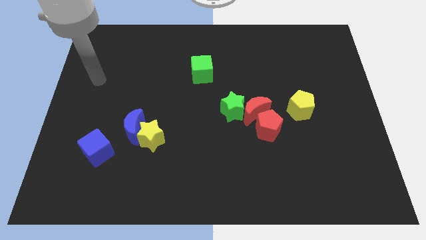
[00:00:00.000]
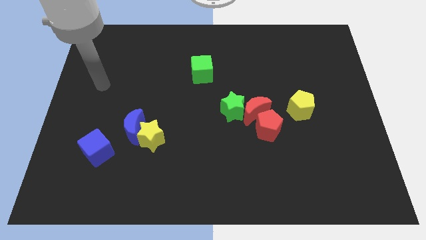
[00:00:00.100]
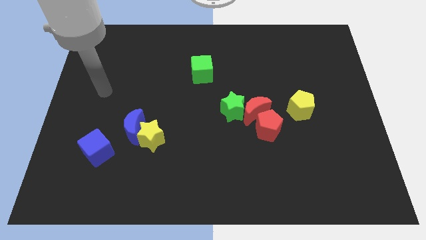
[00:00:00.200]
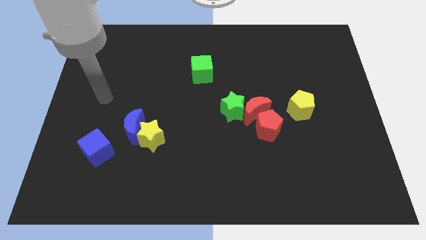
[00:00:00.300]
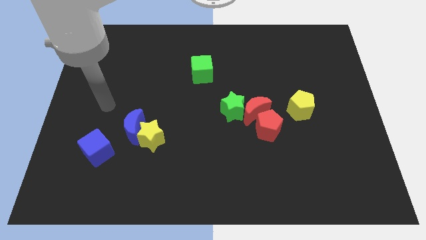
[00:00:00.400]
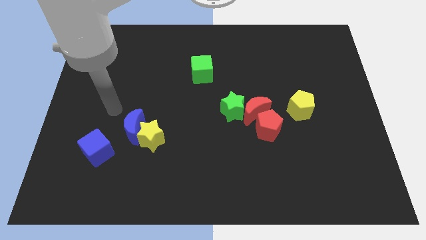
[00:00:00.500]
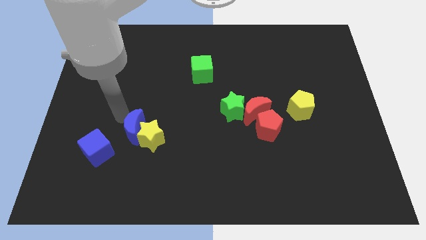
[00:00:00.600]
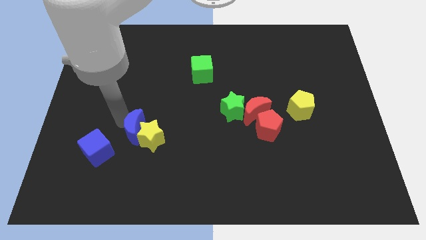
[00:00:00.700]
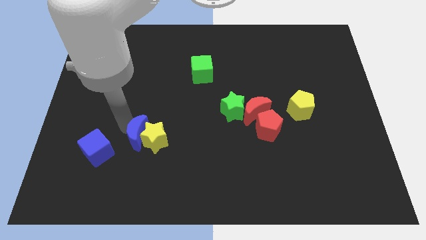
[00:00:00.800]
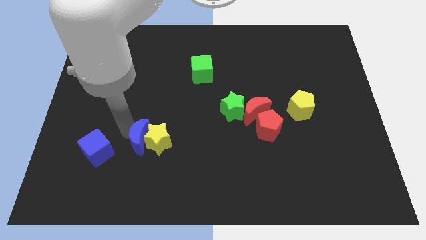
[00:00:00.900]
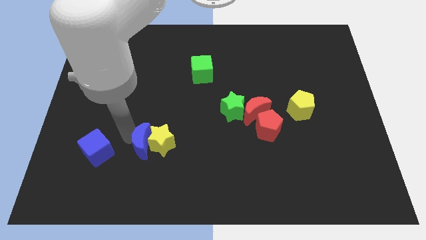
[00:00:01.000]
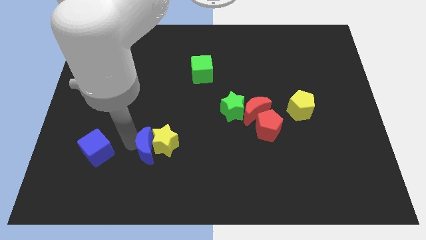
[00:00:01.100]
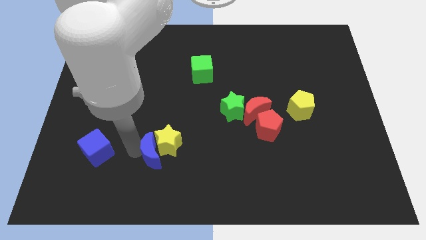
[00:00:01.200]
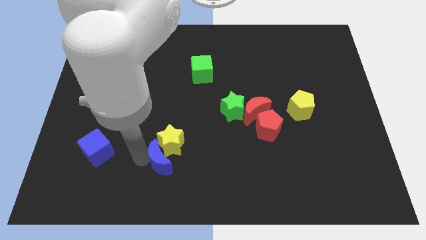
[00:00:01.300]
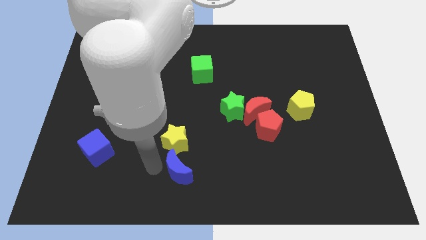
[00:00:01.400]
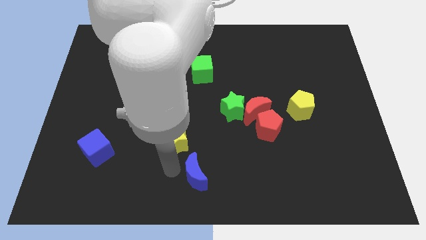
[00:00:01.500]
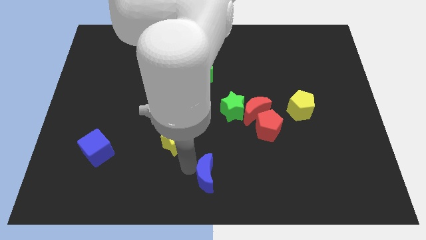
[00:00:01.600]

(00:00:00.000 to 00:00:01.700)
pull the yellow star apart from the blue moon

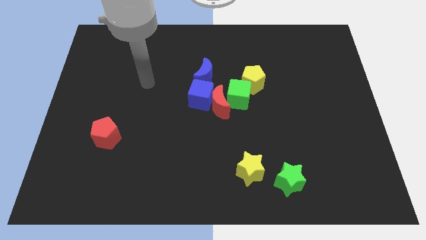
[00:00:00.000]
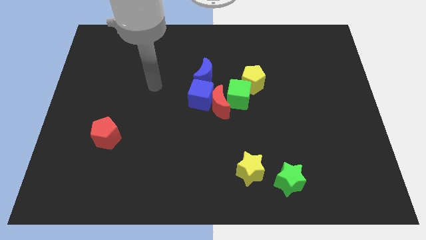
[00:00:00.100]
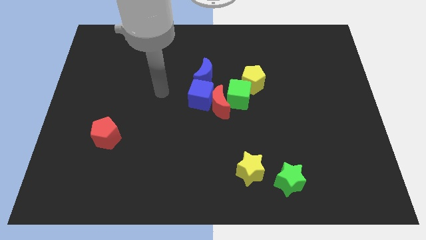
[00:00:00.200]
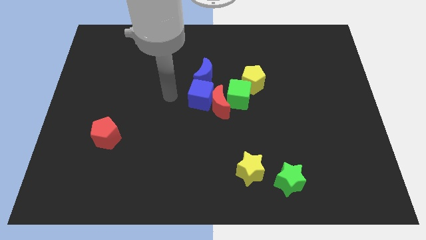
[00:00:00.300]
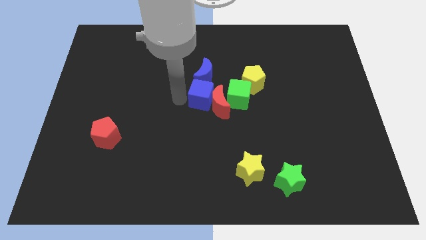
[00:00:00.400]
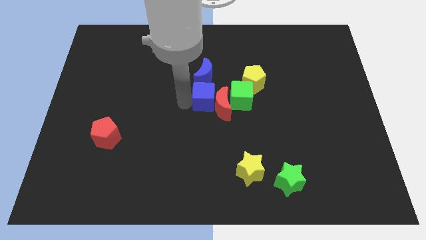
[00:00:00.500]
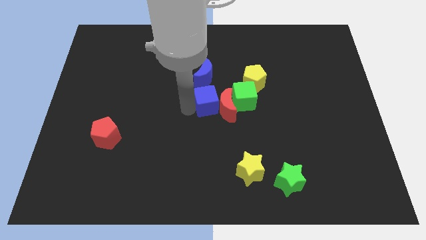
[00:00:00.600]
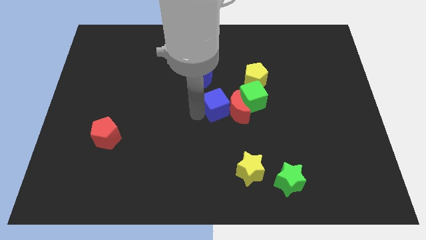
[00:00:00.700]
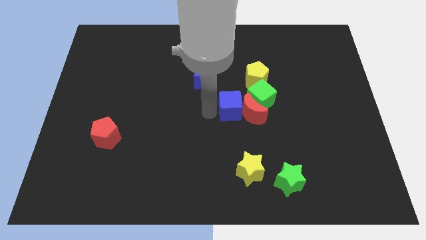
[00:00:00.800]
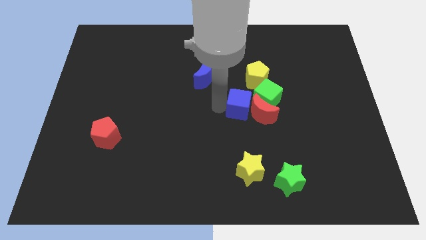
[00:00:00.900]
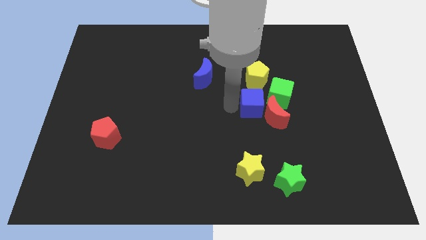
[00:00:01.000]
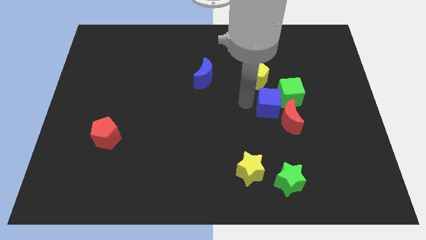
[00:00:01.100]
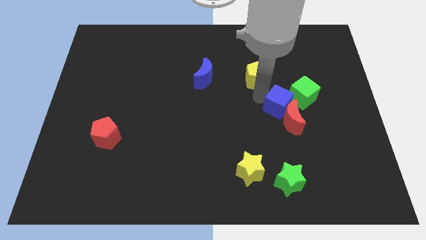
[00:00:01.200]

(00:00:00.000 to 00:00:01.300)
pull the yellow pentagon apart from the green cube

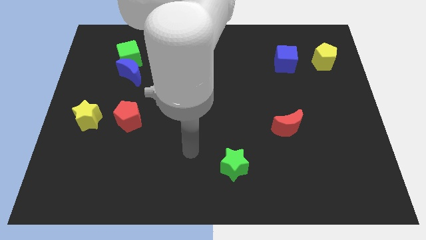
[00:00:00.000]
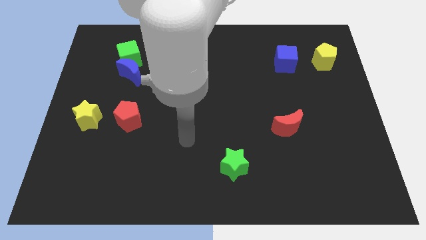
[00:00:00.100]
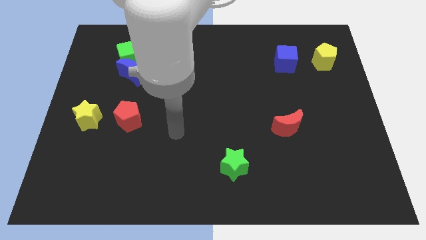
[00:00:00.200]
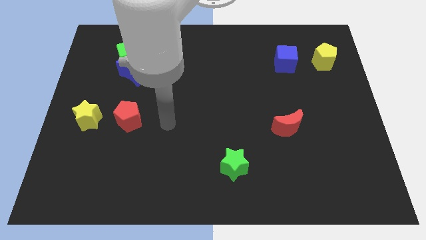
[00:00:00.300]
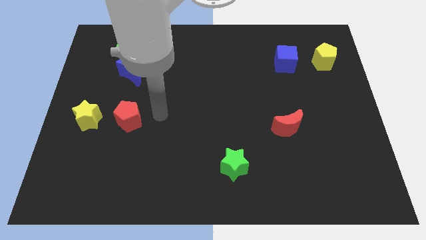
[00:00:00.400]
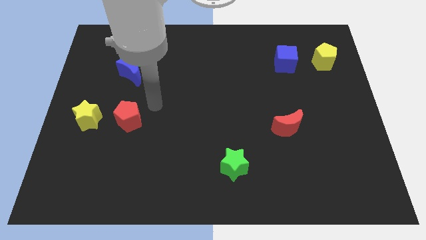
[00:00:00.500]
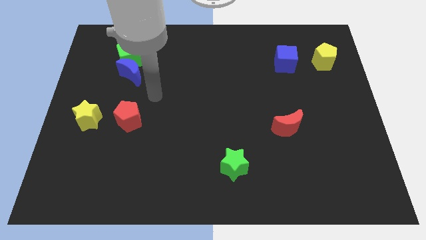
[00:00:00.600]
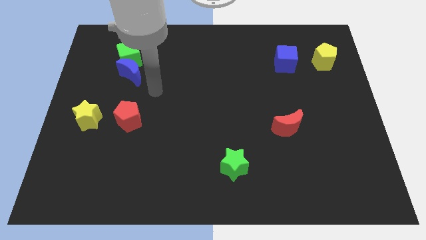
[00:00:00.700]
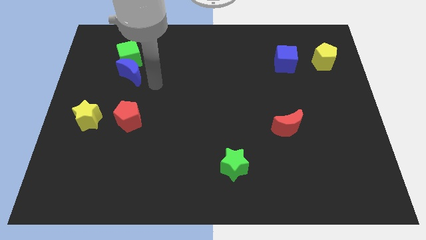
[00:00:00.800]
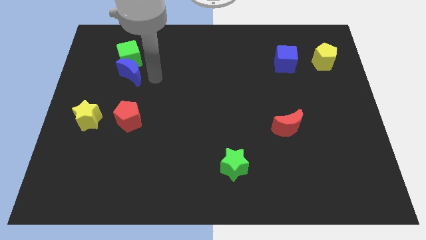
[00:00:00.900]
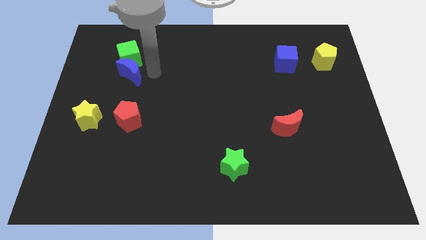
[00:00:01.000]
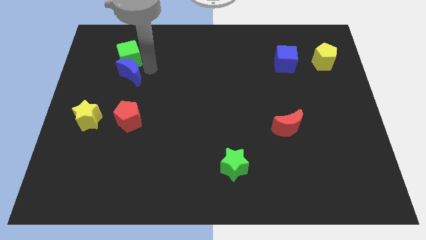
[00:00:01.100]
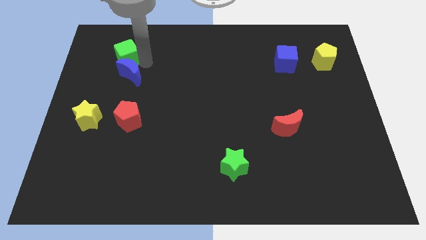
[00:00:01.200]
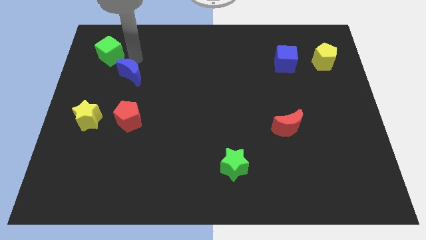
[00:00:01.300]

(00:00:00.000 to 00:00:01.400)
separate the blue moon from the green cube

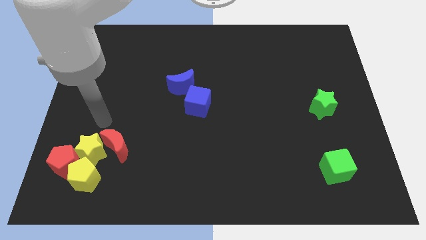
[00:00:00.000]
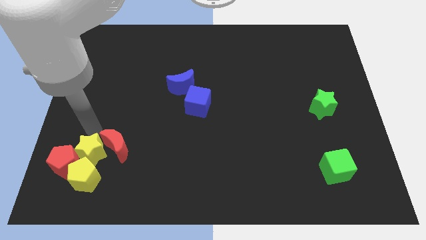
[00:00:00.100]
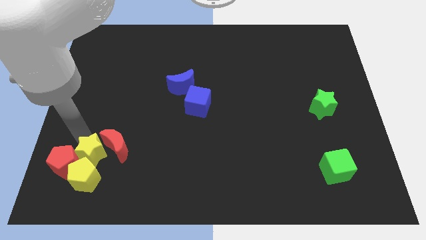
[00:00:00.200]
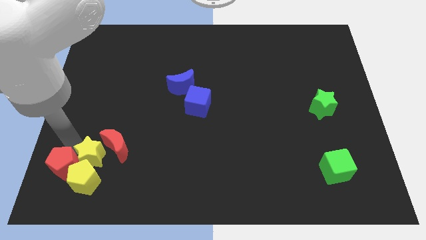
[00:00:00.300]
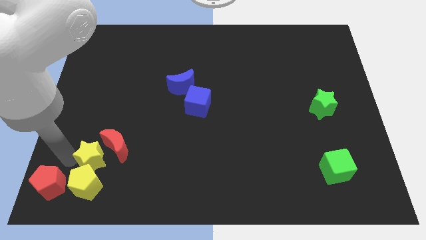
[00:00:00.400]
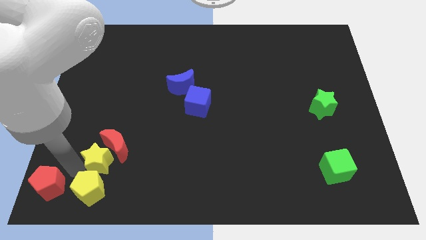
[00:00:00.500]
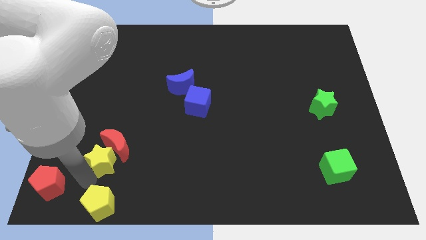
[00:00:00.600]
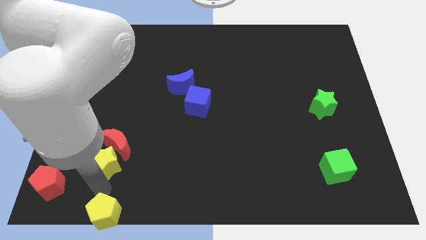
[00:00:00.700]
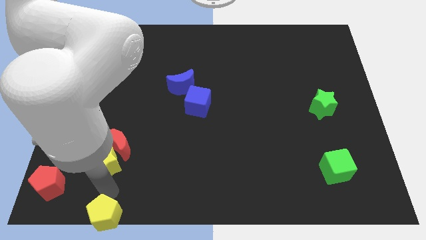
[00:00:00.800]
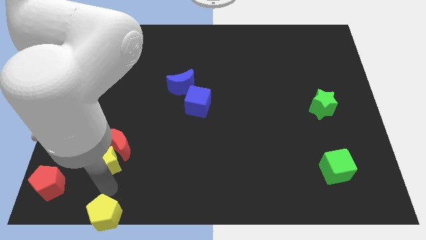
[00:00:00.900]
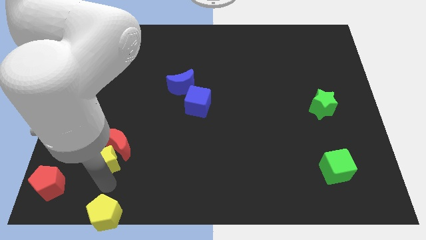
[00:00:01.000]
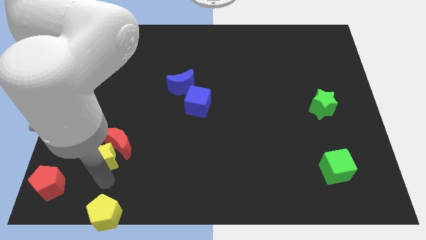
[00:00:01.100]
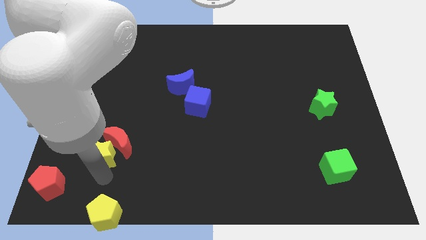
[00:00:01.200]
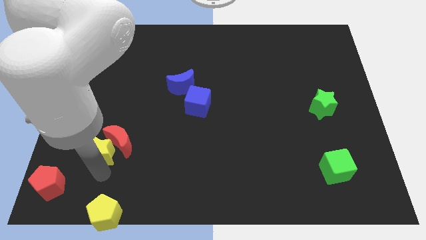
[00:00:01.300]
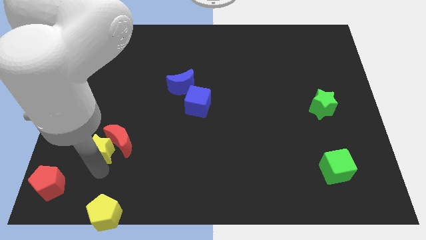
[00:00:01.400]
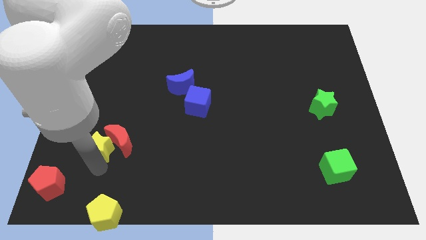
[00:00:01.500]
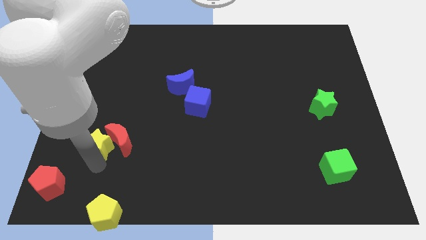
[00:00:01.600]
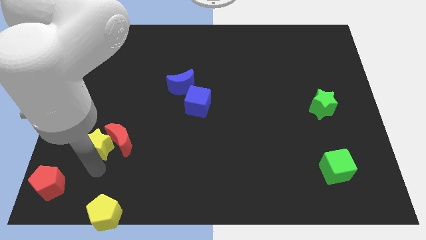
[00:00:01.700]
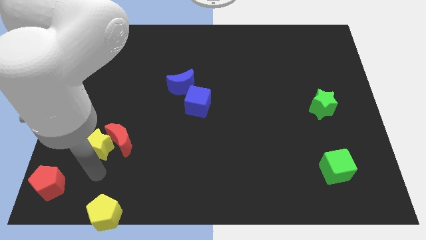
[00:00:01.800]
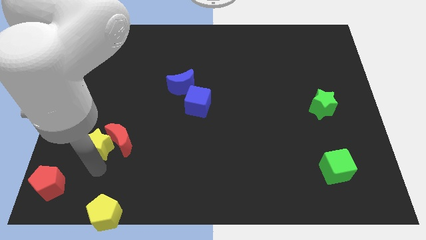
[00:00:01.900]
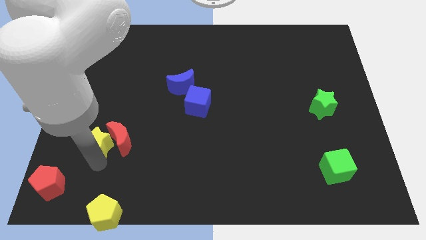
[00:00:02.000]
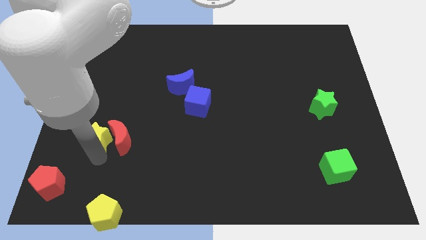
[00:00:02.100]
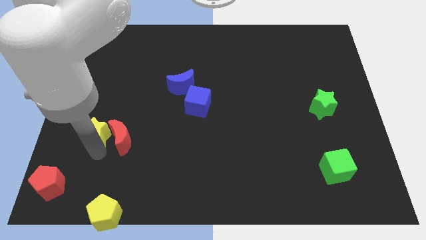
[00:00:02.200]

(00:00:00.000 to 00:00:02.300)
pull the yellow star apart from the clump

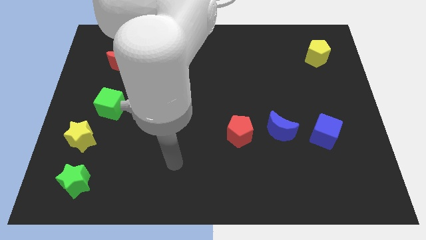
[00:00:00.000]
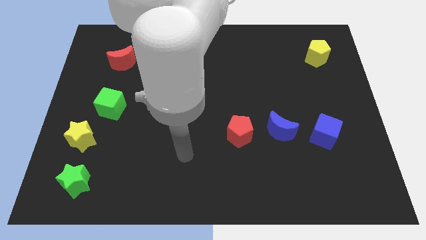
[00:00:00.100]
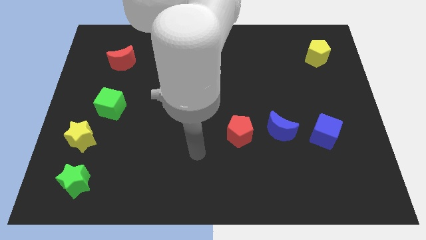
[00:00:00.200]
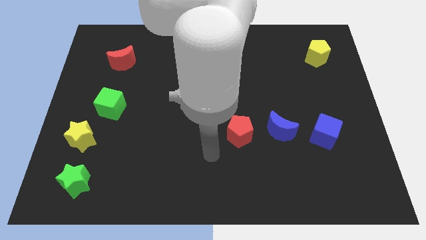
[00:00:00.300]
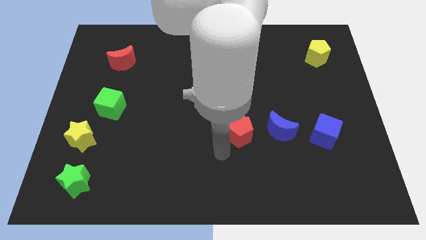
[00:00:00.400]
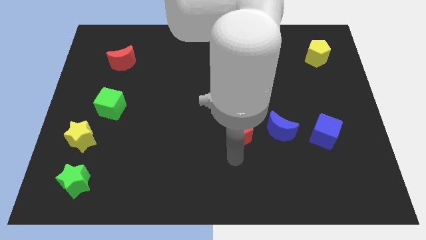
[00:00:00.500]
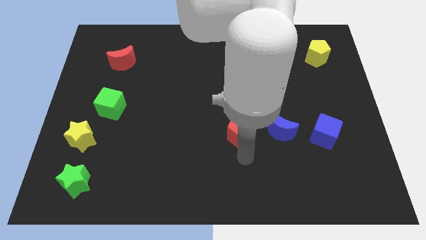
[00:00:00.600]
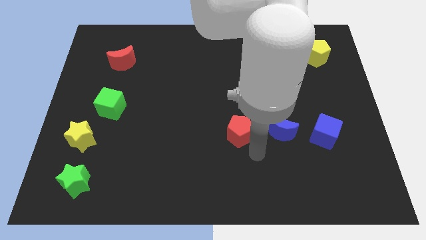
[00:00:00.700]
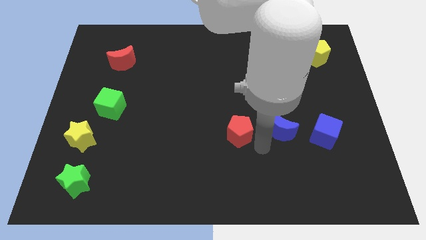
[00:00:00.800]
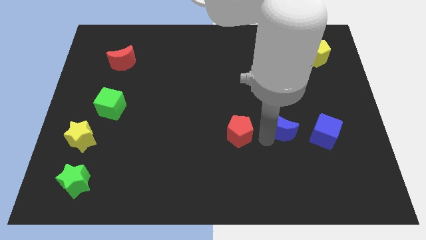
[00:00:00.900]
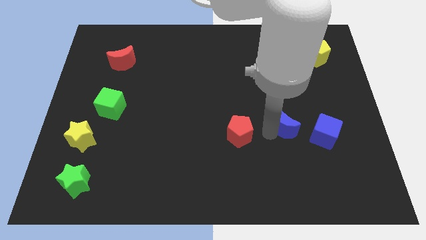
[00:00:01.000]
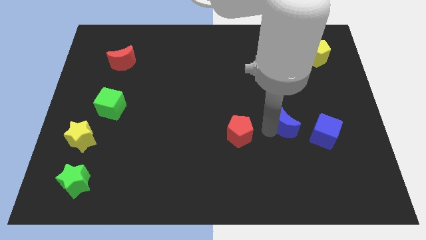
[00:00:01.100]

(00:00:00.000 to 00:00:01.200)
separate the red pentagon from the blue moon

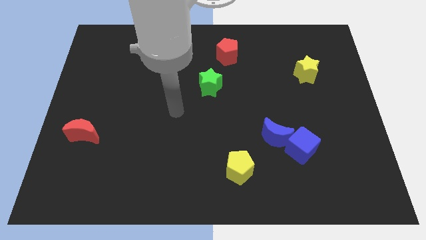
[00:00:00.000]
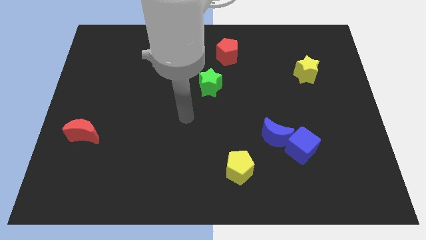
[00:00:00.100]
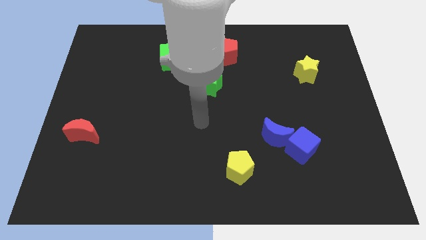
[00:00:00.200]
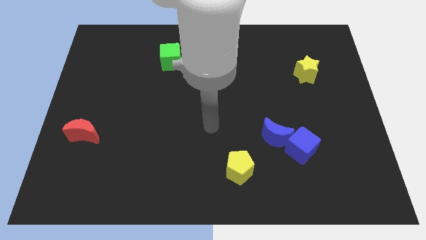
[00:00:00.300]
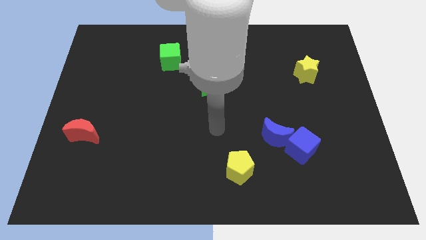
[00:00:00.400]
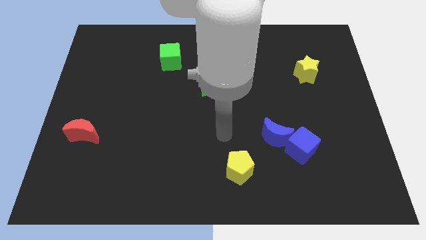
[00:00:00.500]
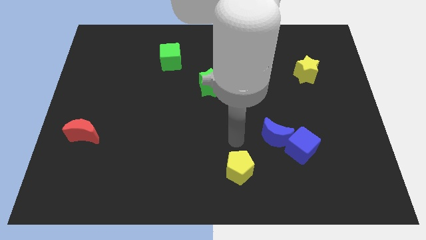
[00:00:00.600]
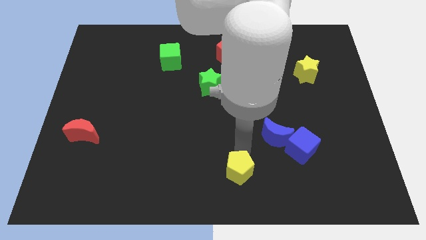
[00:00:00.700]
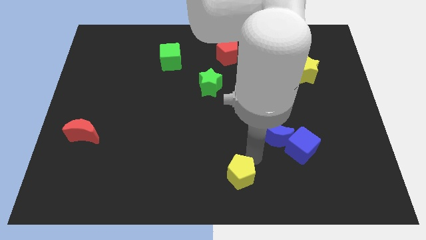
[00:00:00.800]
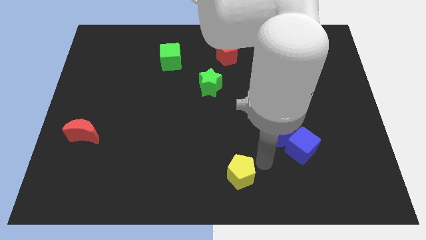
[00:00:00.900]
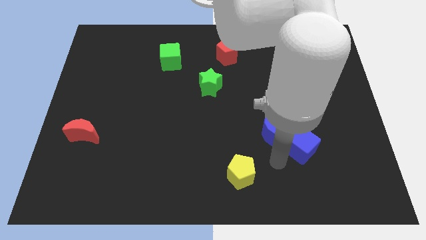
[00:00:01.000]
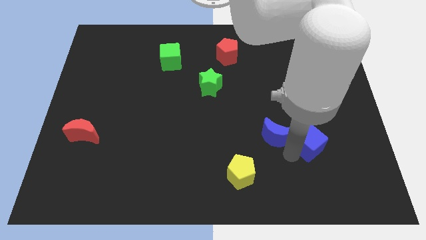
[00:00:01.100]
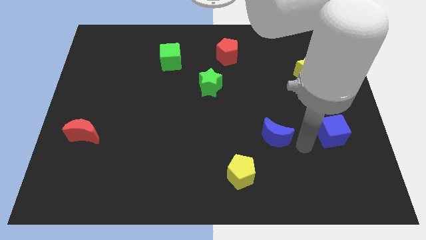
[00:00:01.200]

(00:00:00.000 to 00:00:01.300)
separate the blue moon from the blue cube
